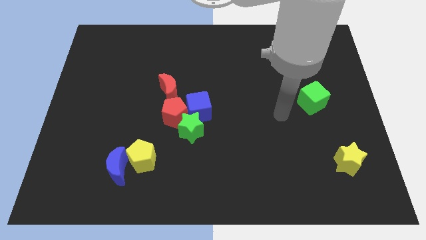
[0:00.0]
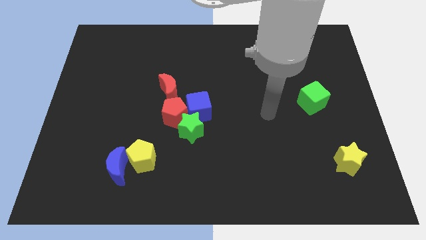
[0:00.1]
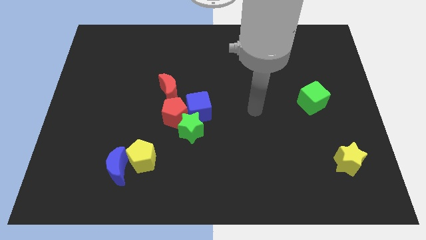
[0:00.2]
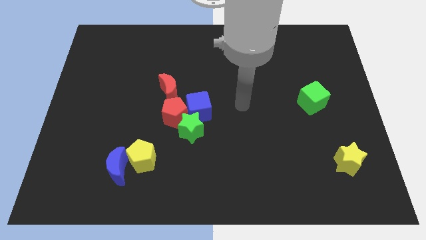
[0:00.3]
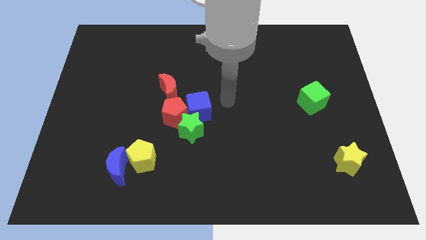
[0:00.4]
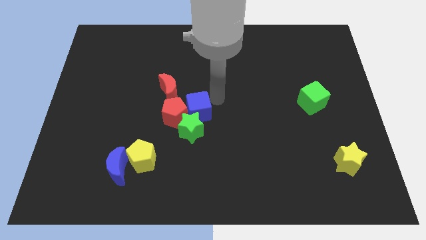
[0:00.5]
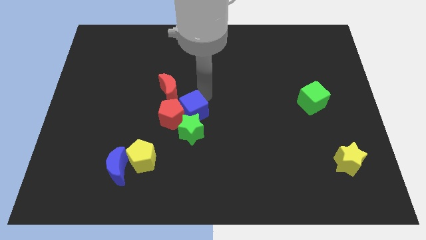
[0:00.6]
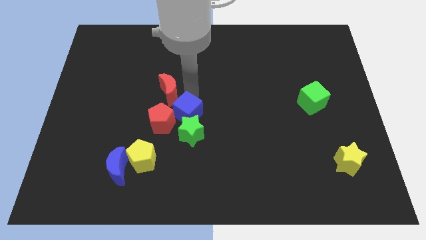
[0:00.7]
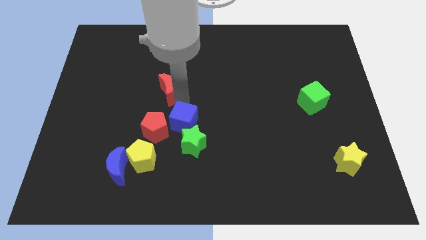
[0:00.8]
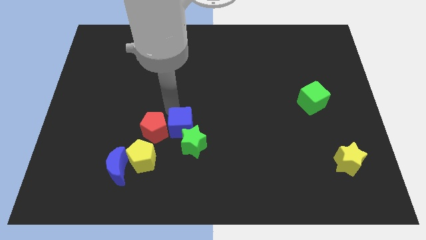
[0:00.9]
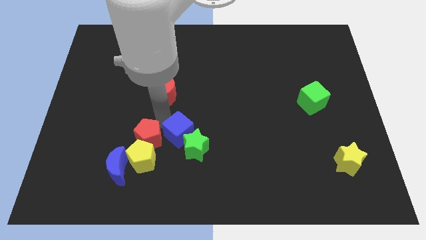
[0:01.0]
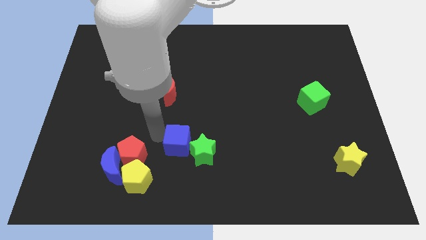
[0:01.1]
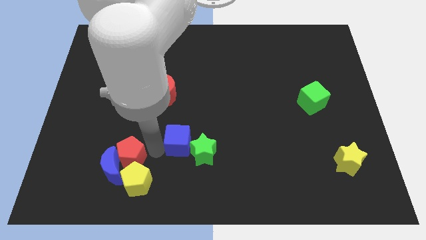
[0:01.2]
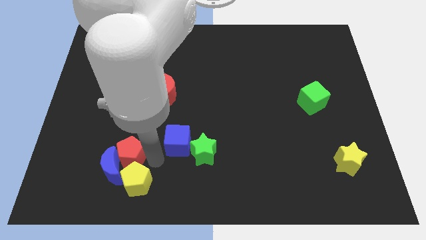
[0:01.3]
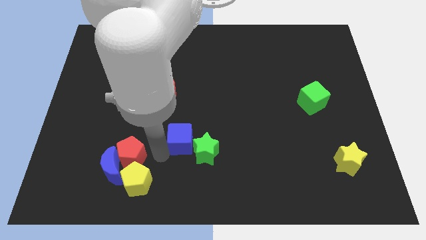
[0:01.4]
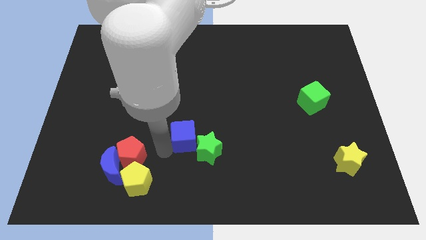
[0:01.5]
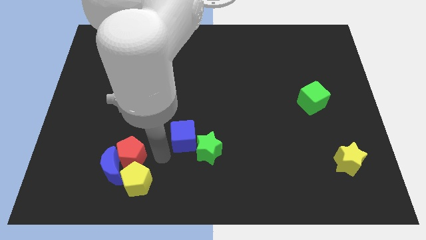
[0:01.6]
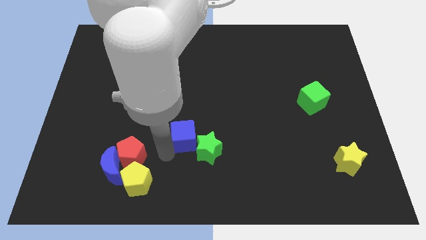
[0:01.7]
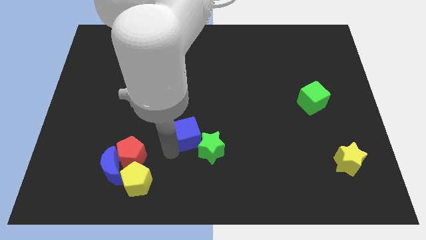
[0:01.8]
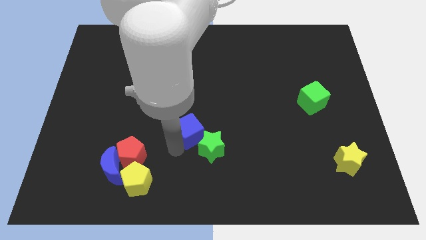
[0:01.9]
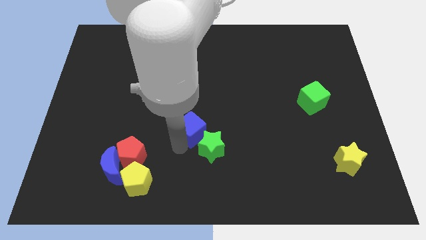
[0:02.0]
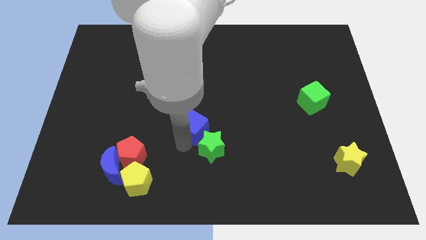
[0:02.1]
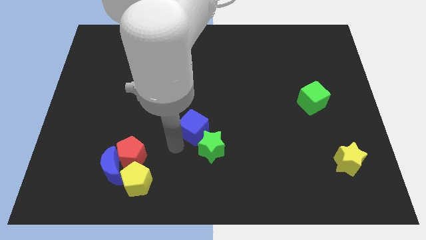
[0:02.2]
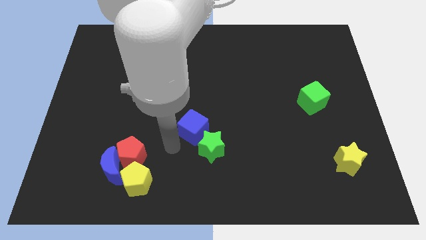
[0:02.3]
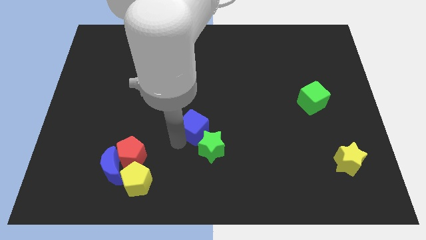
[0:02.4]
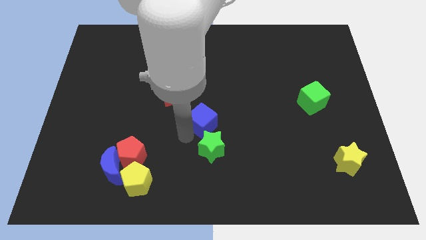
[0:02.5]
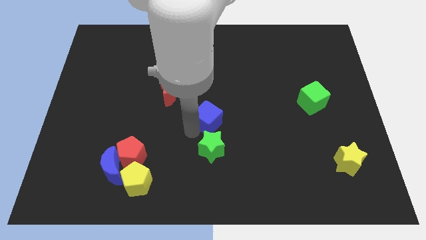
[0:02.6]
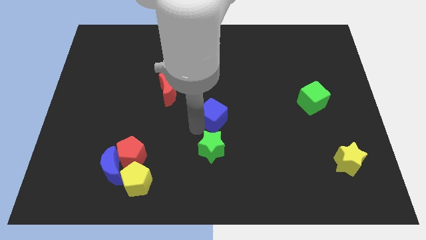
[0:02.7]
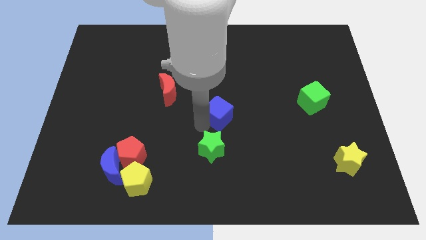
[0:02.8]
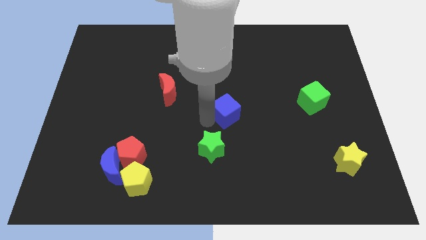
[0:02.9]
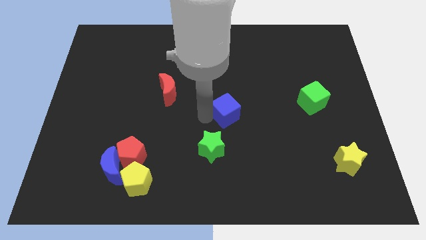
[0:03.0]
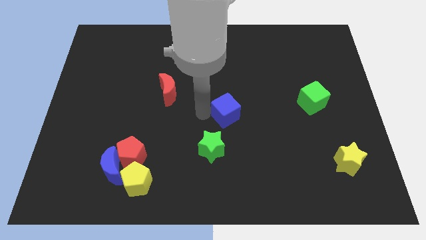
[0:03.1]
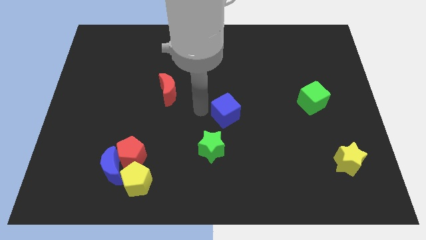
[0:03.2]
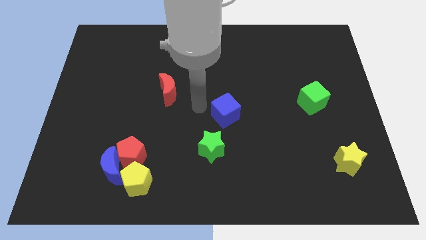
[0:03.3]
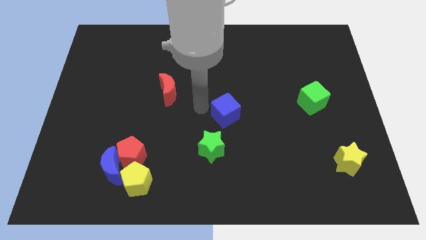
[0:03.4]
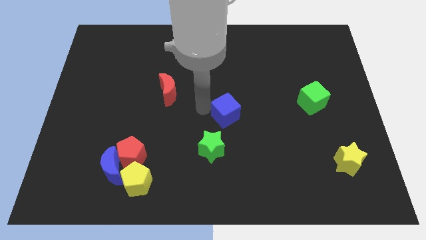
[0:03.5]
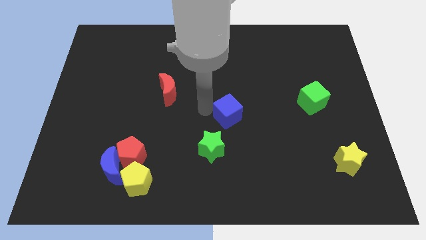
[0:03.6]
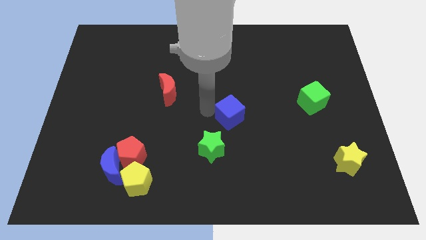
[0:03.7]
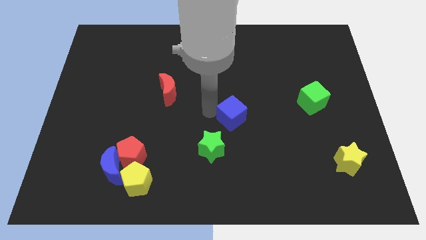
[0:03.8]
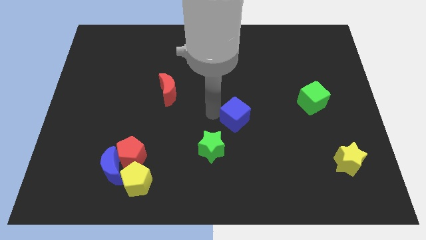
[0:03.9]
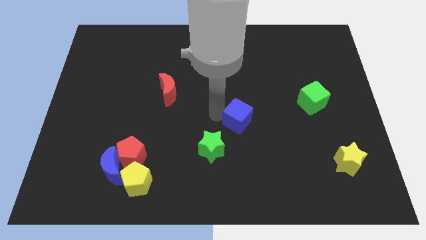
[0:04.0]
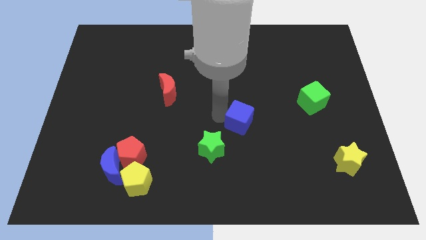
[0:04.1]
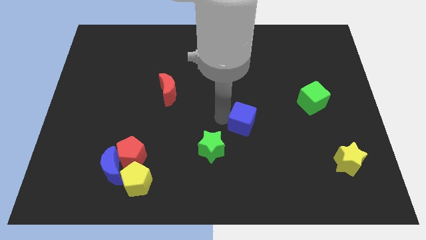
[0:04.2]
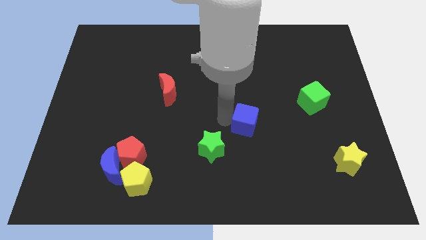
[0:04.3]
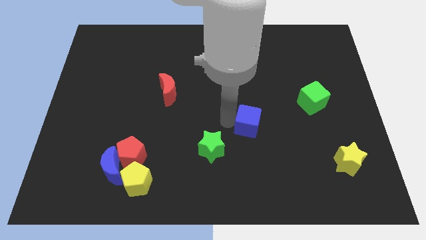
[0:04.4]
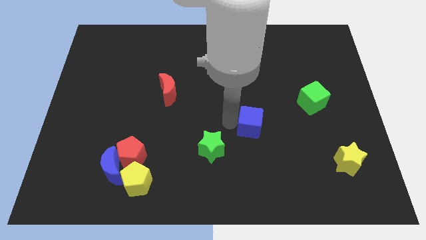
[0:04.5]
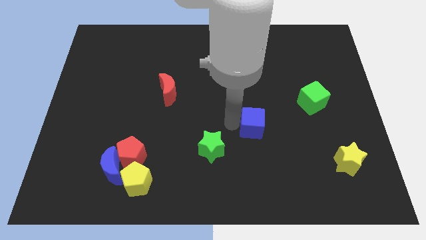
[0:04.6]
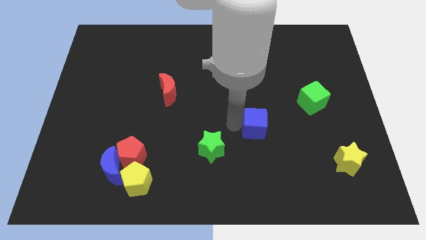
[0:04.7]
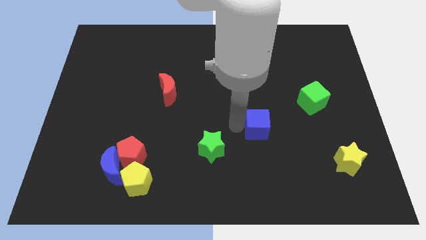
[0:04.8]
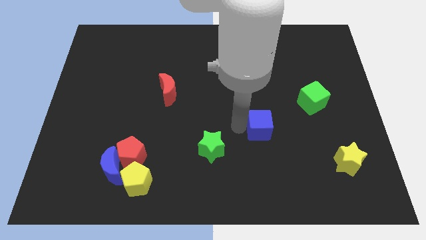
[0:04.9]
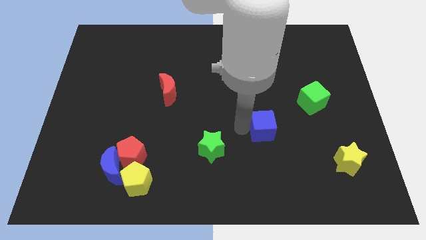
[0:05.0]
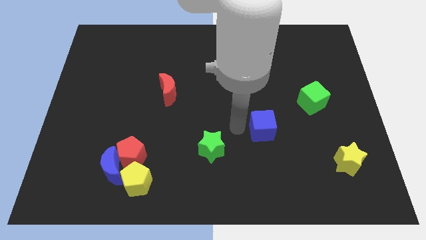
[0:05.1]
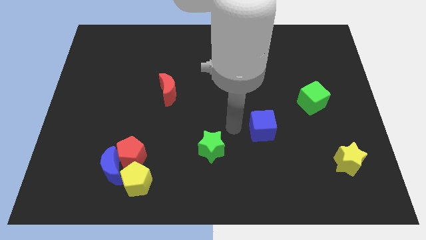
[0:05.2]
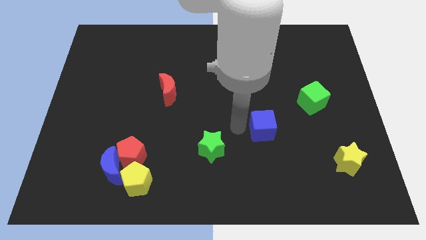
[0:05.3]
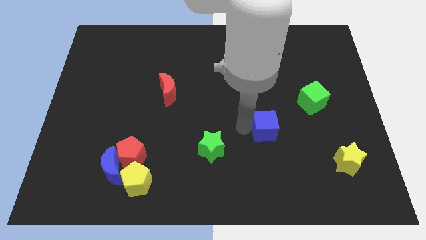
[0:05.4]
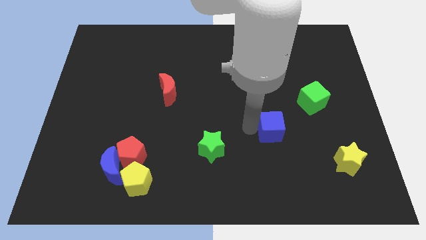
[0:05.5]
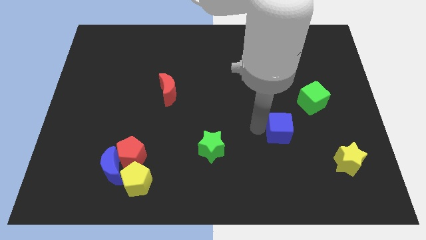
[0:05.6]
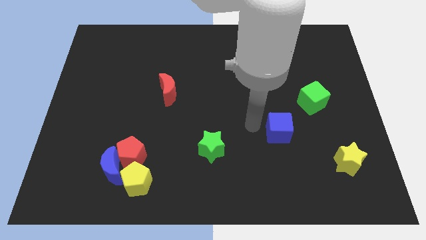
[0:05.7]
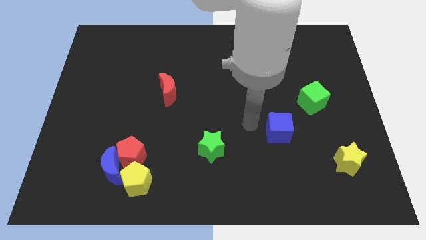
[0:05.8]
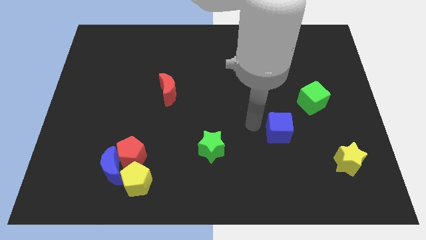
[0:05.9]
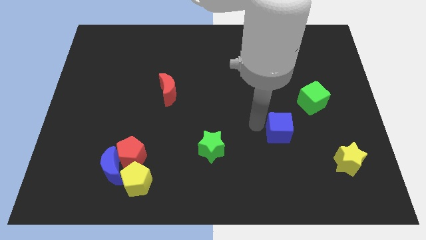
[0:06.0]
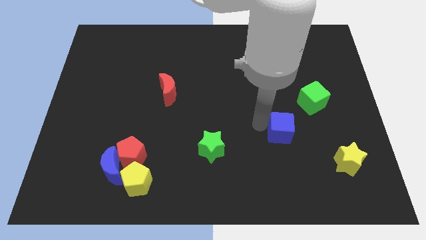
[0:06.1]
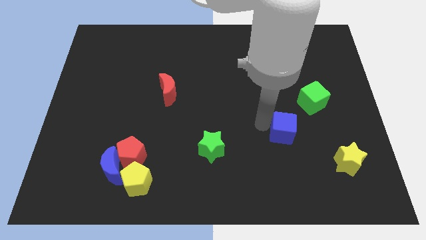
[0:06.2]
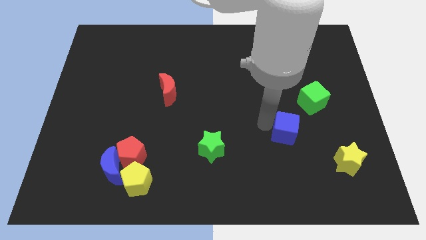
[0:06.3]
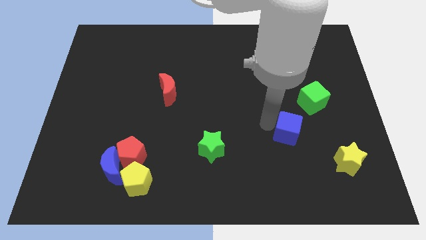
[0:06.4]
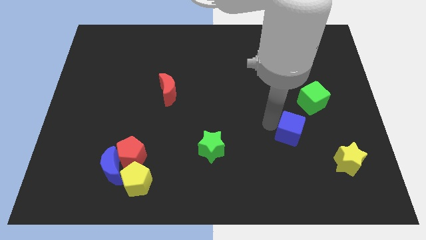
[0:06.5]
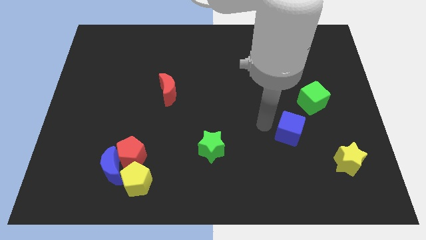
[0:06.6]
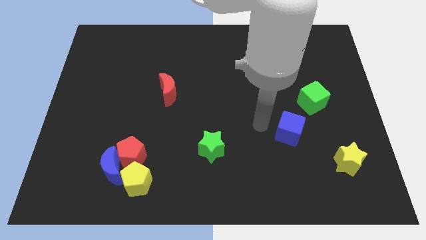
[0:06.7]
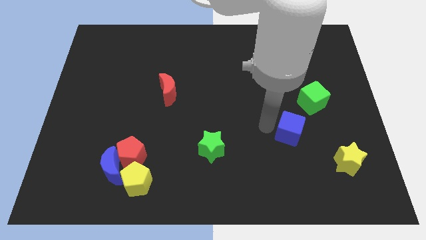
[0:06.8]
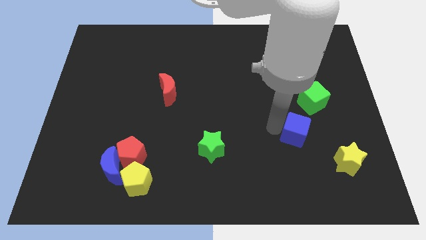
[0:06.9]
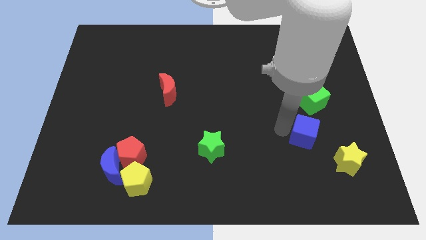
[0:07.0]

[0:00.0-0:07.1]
move the blue cube to the bottom side of the green cube

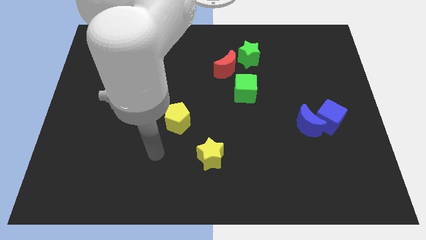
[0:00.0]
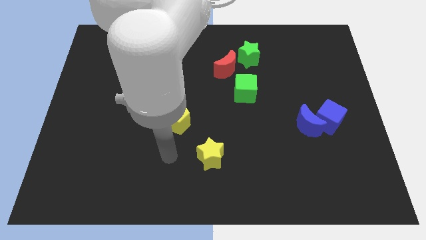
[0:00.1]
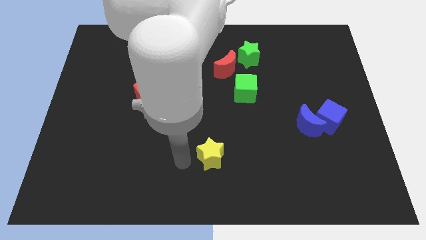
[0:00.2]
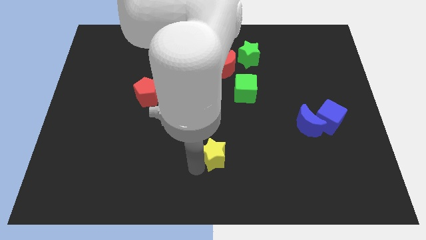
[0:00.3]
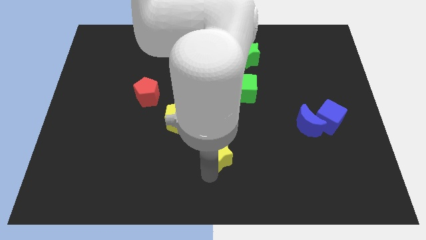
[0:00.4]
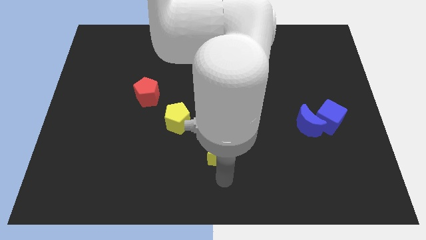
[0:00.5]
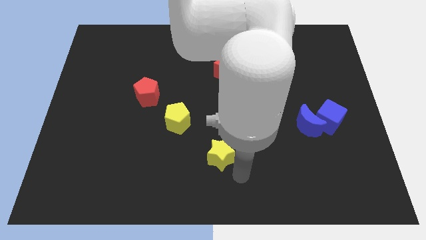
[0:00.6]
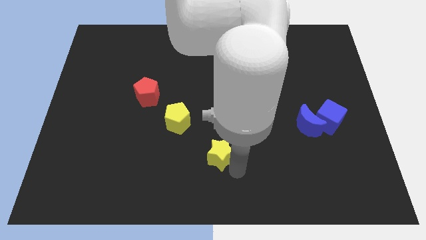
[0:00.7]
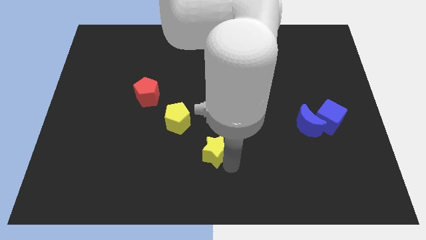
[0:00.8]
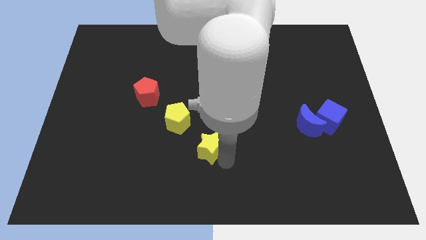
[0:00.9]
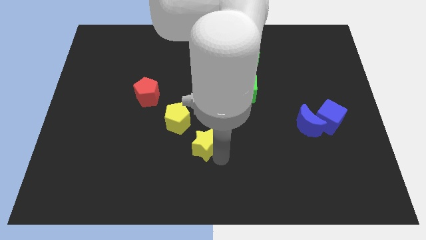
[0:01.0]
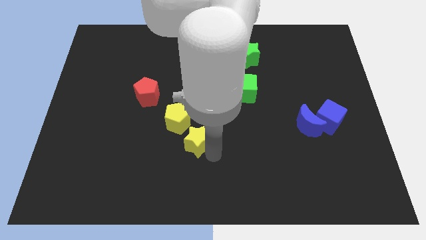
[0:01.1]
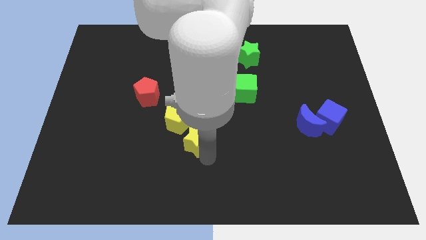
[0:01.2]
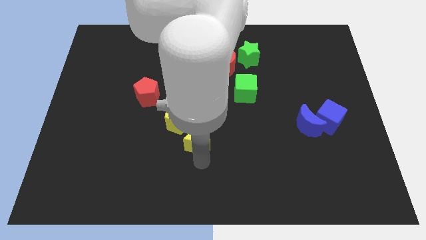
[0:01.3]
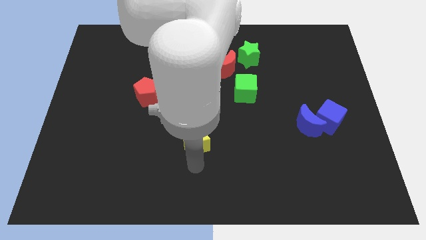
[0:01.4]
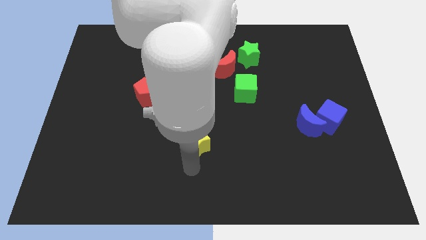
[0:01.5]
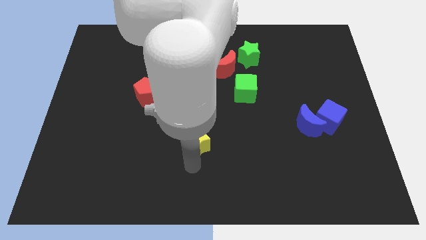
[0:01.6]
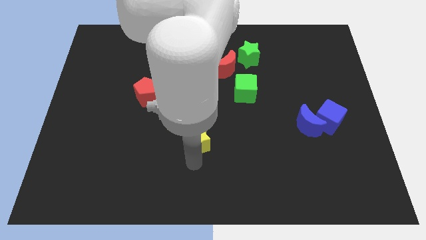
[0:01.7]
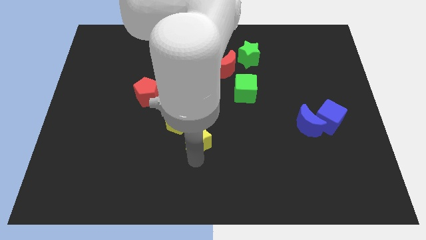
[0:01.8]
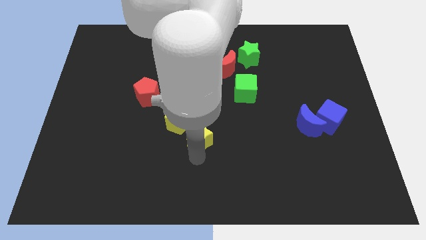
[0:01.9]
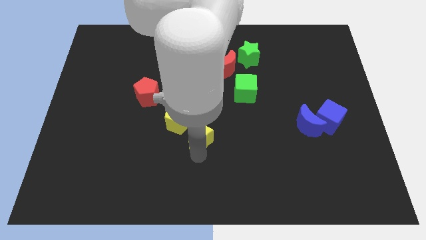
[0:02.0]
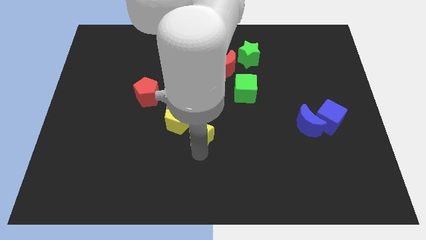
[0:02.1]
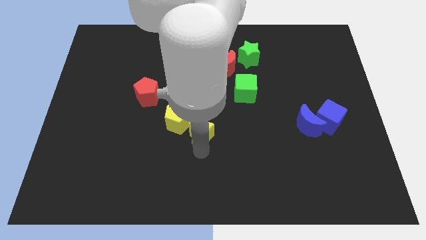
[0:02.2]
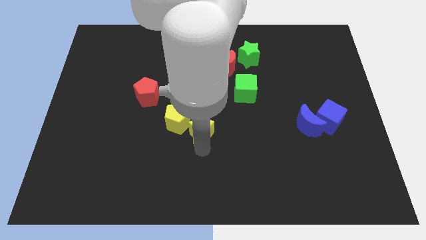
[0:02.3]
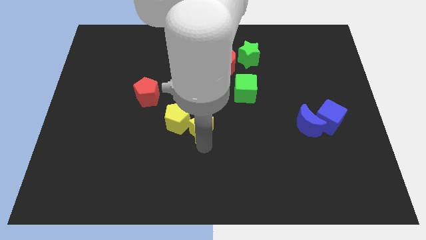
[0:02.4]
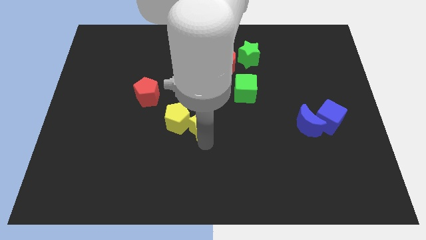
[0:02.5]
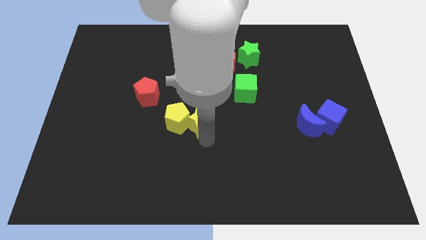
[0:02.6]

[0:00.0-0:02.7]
push the yellow star diagonally up and to the right of the yellow pentagon
